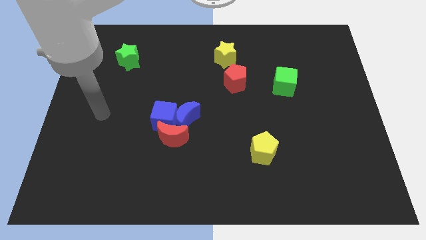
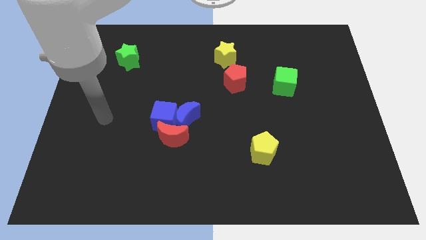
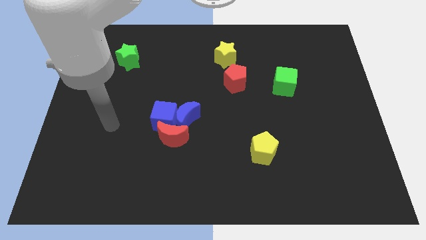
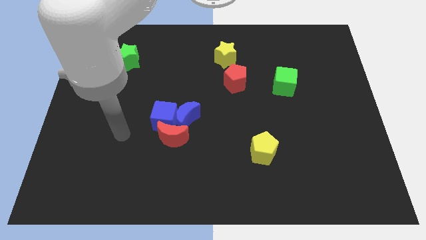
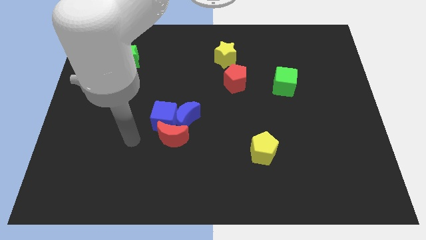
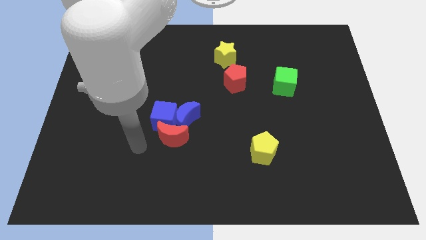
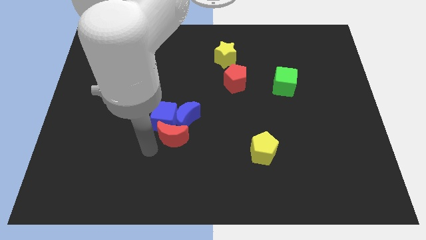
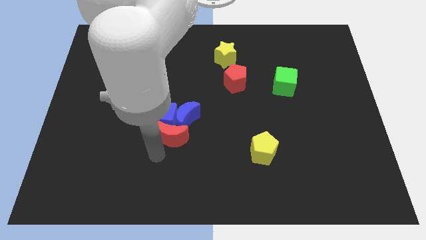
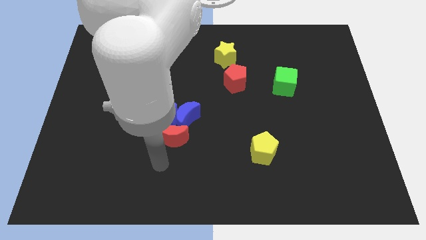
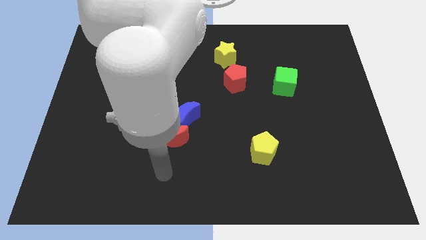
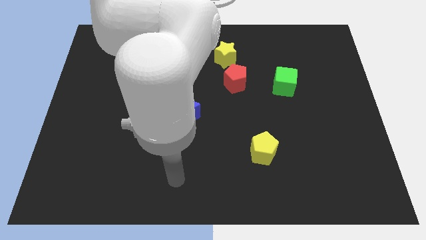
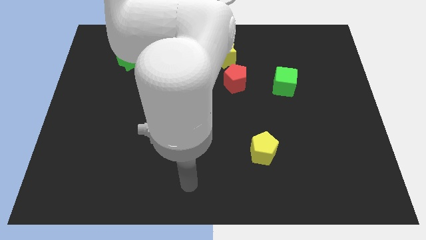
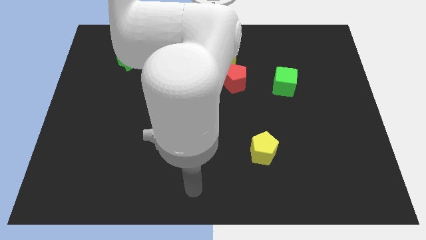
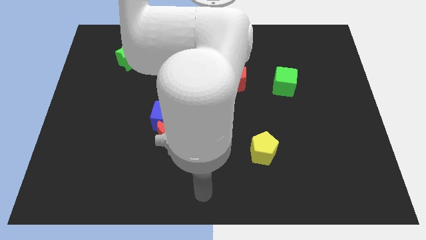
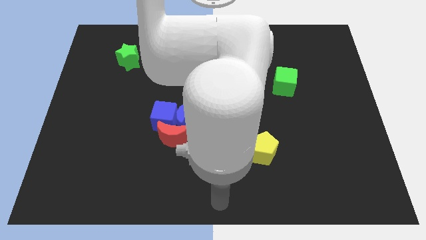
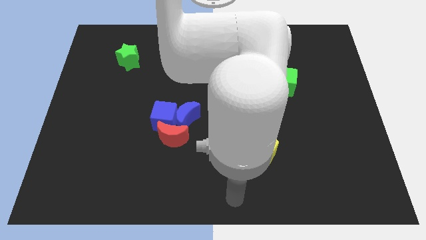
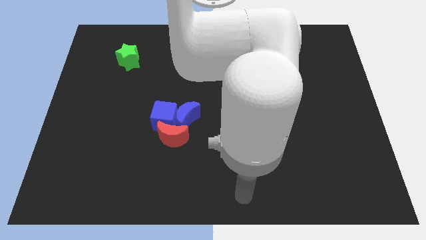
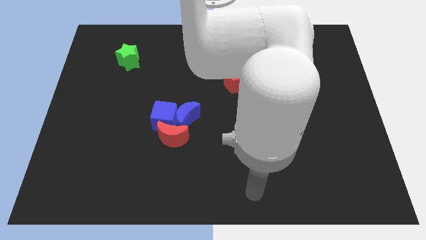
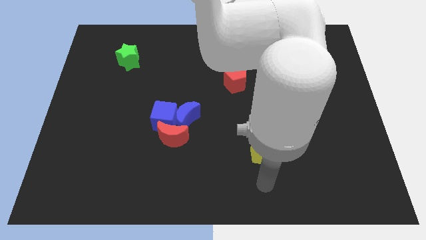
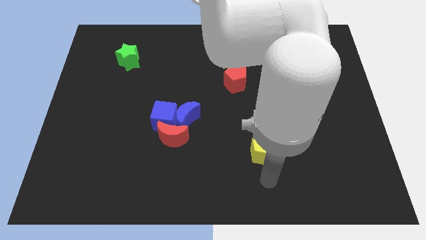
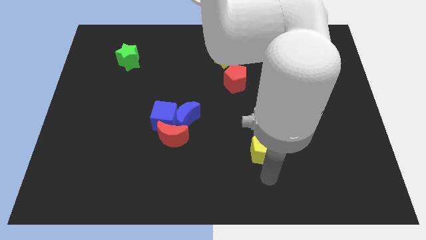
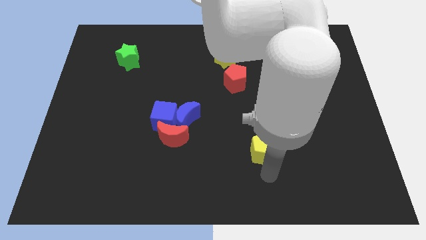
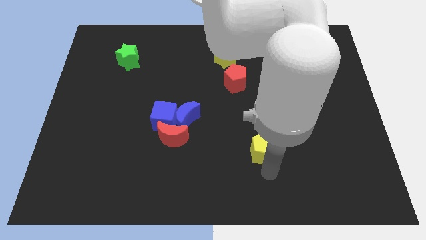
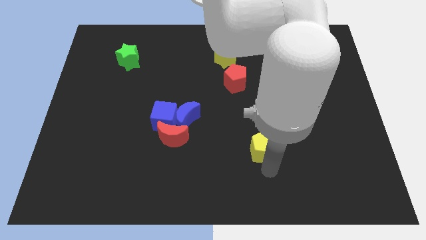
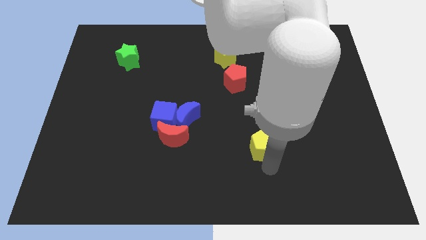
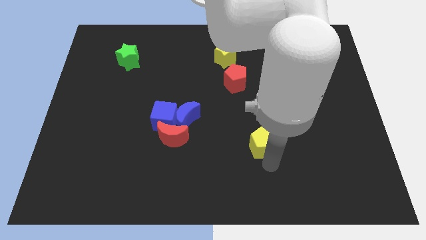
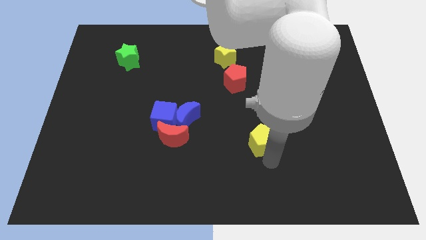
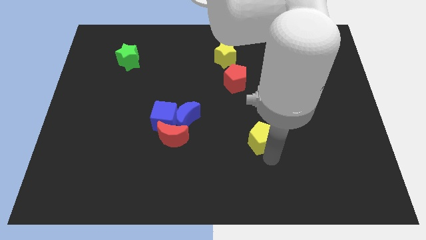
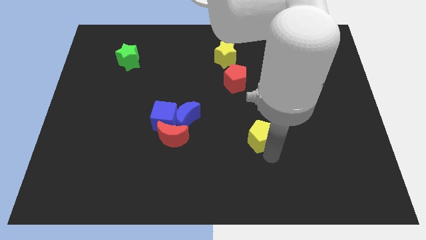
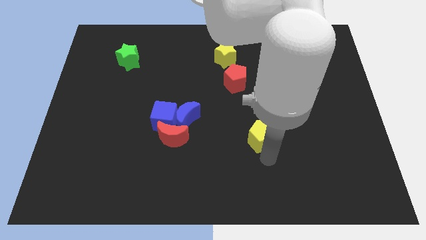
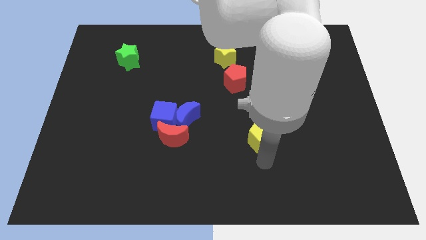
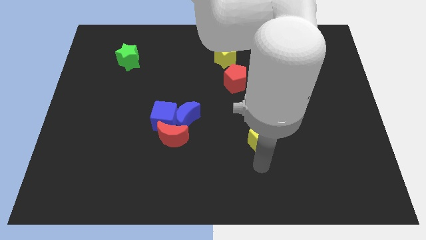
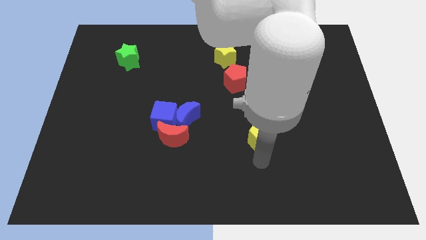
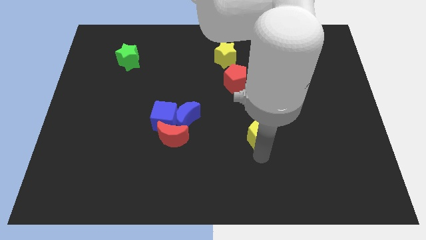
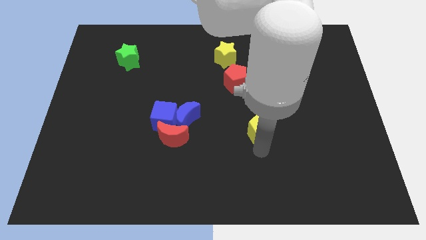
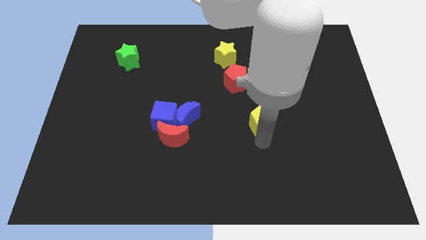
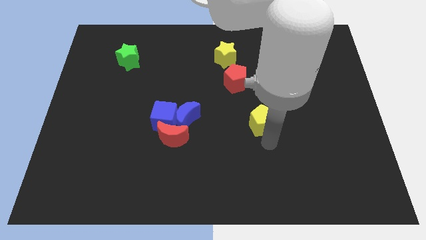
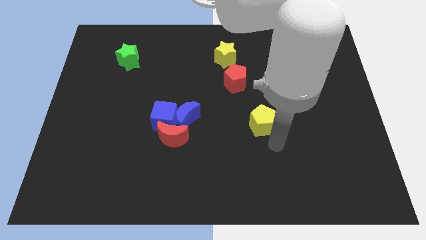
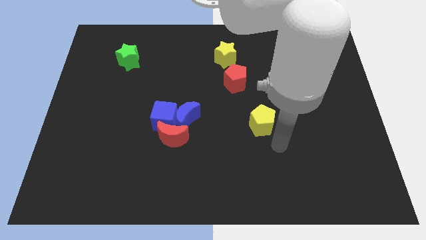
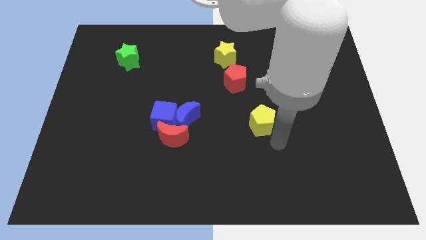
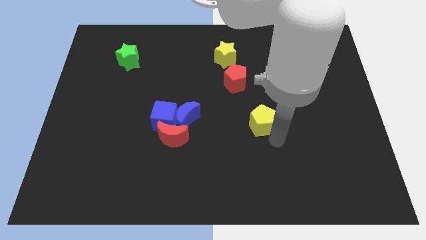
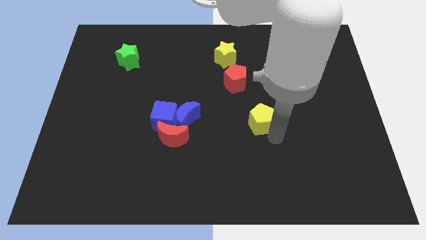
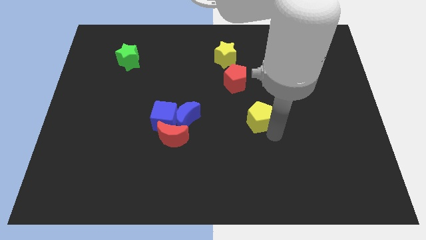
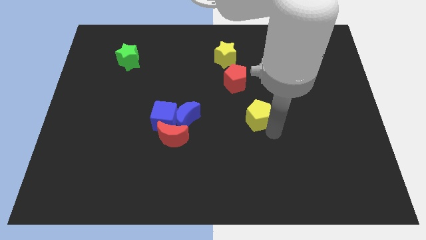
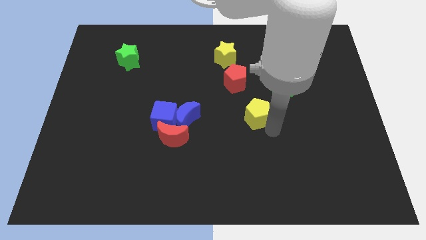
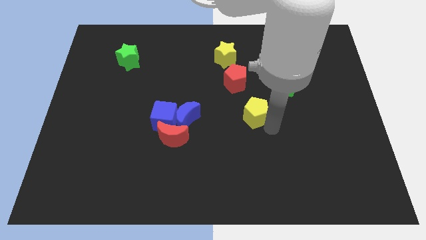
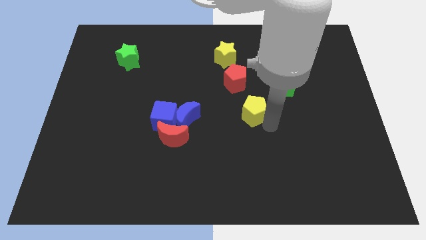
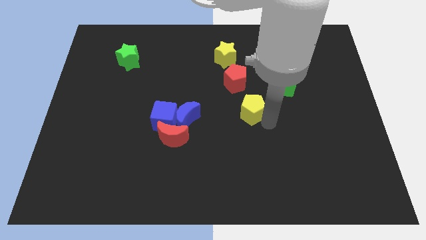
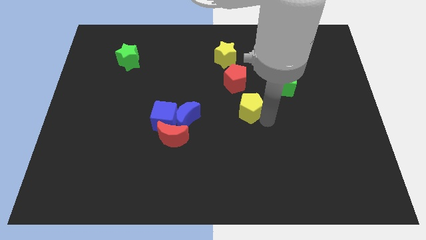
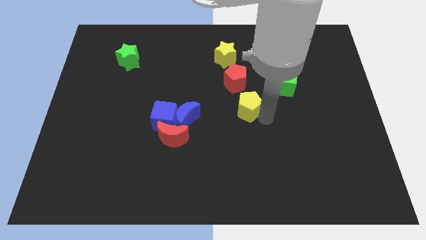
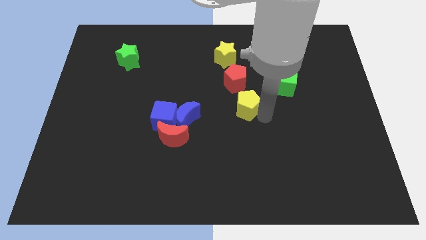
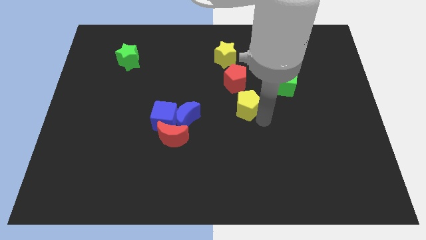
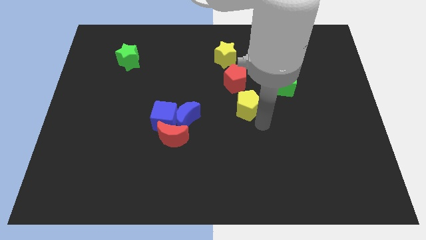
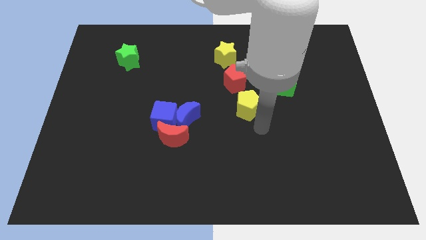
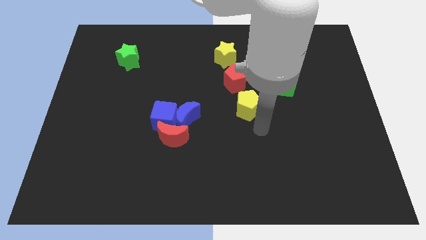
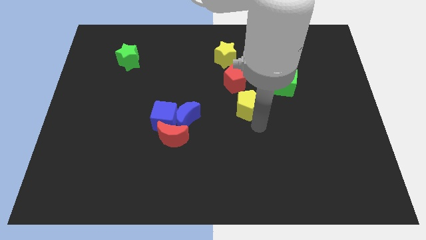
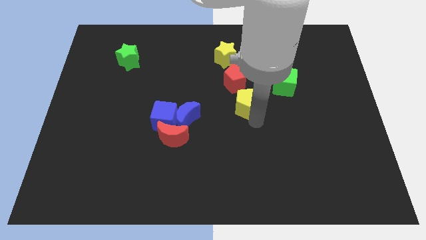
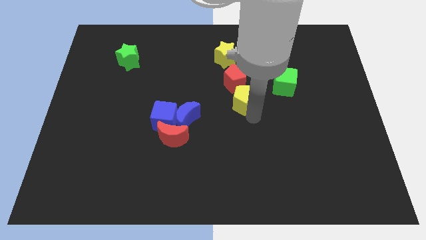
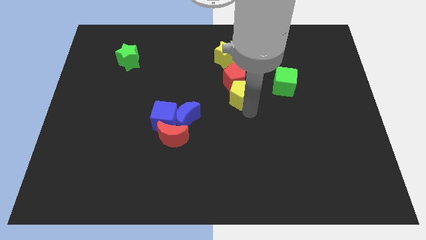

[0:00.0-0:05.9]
put the yellow pentagon next to the red pentagon

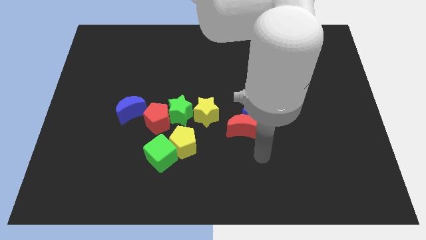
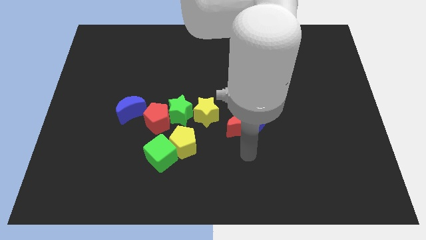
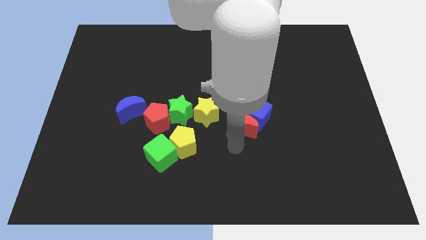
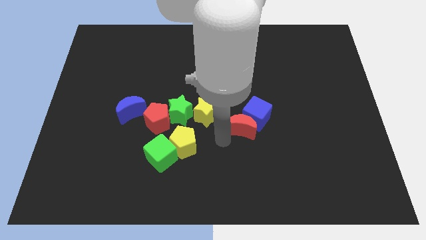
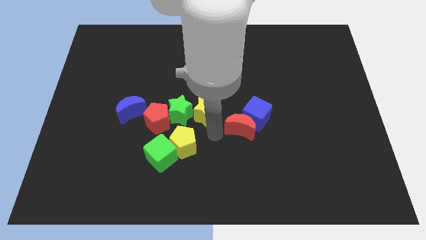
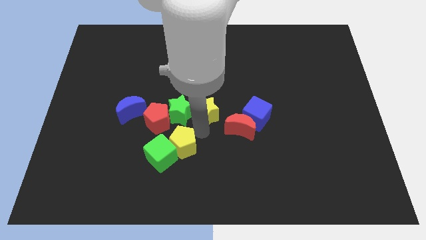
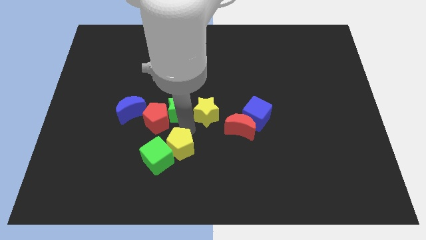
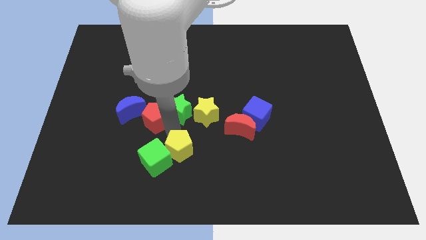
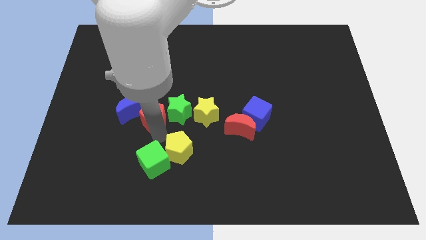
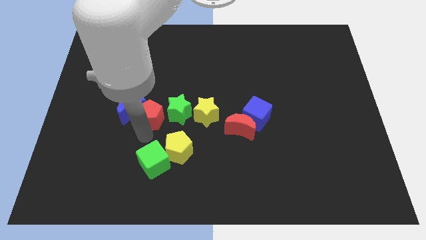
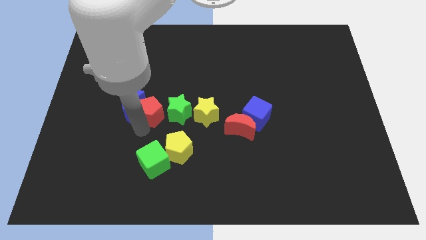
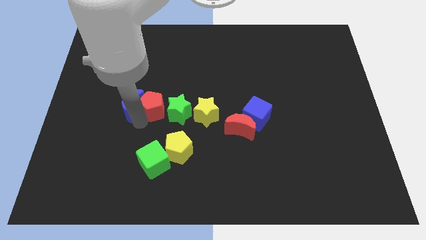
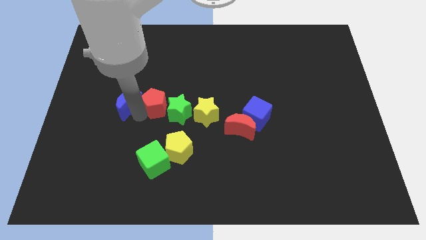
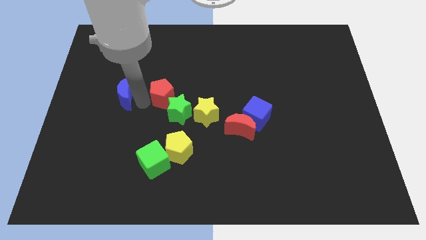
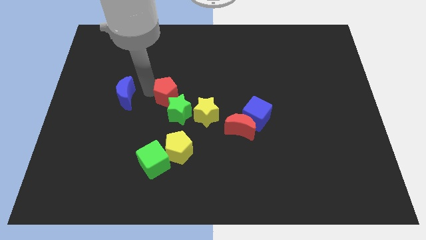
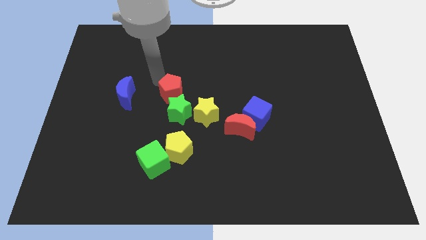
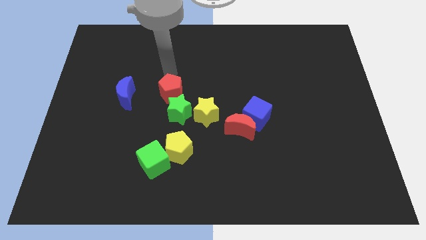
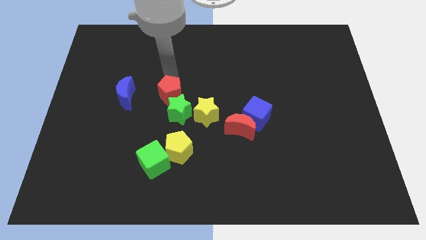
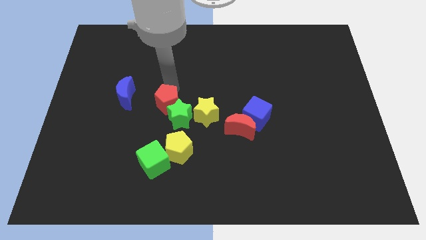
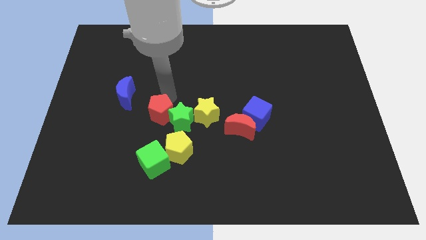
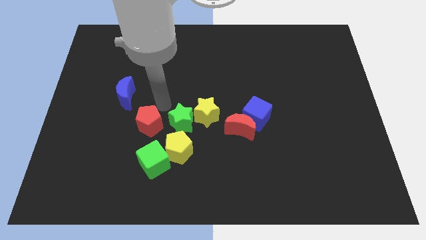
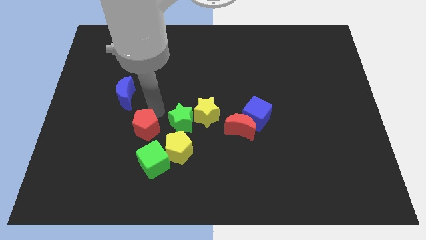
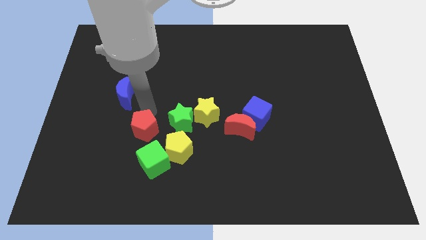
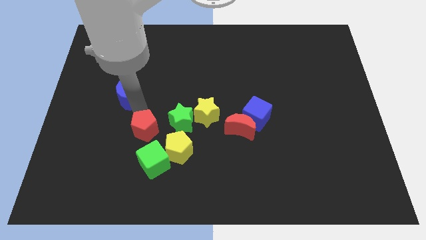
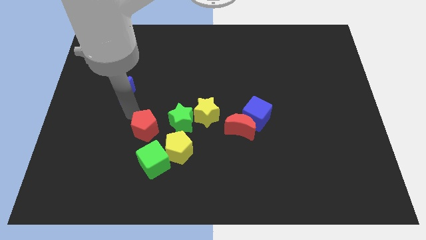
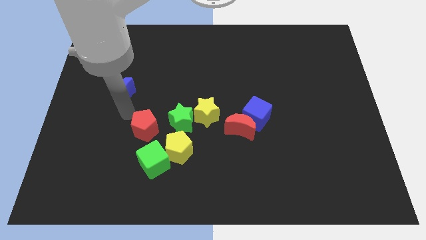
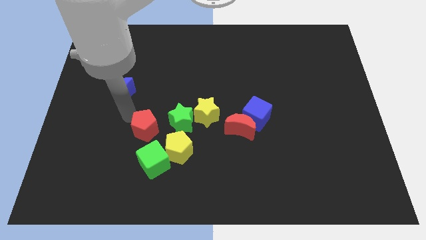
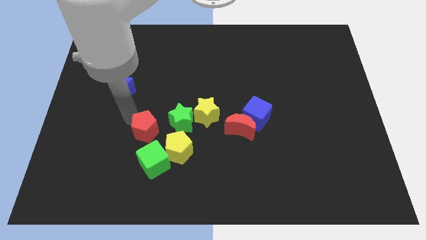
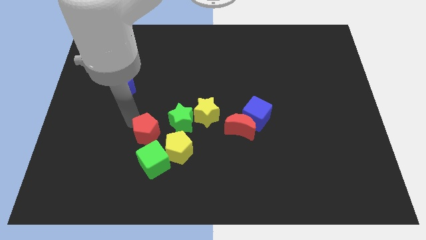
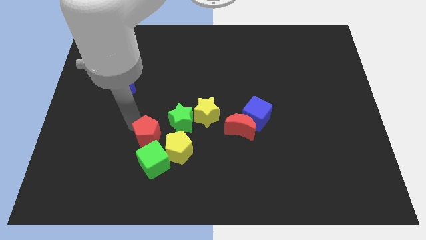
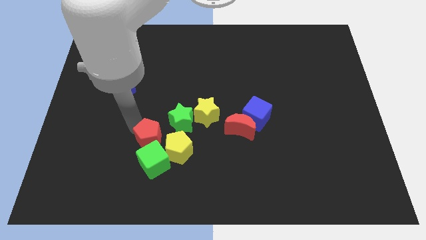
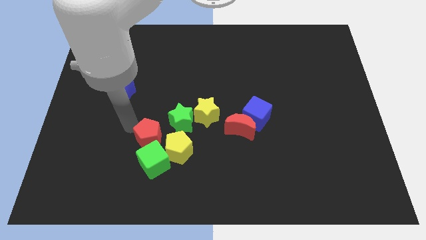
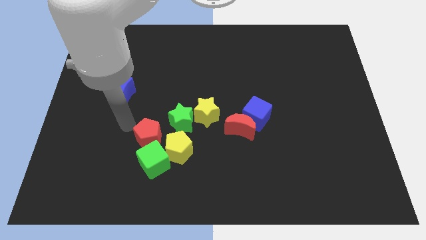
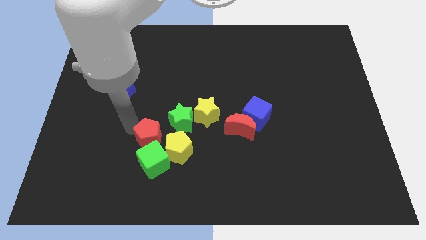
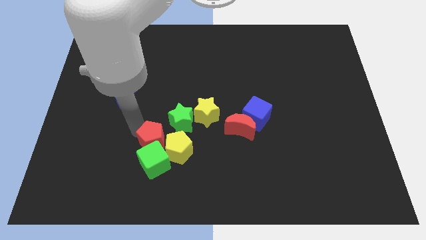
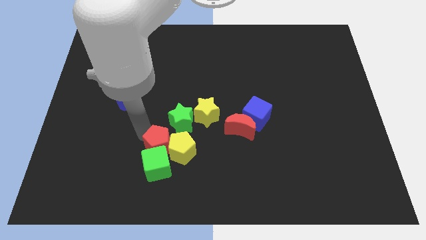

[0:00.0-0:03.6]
slide the red pentagon towards the yellow pentagon
